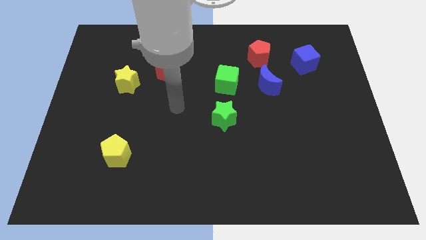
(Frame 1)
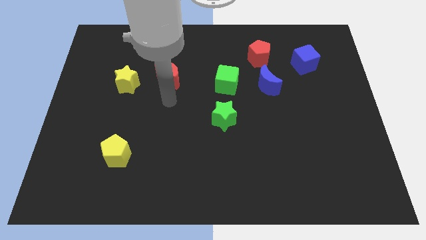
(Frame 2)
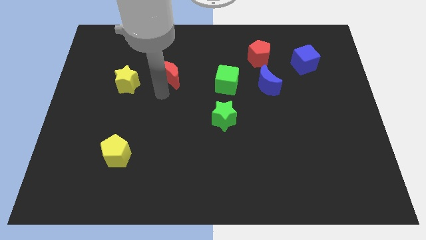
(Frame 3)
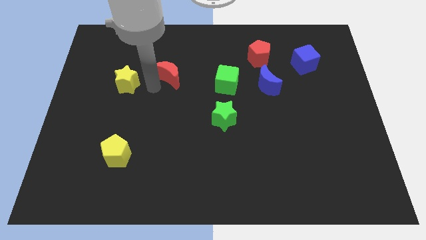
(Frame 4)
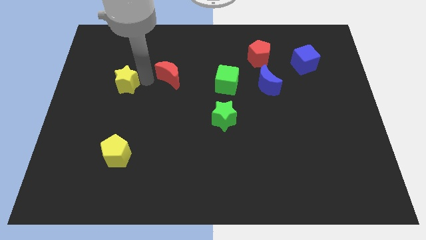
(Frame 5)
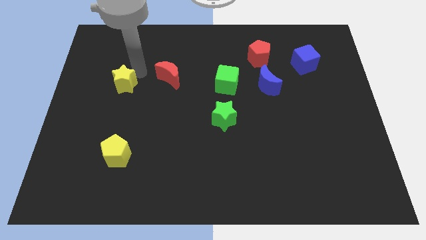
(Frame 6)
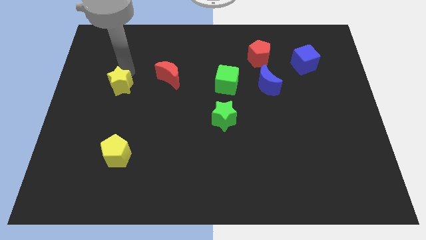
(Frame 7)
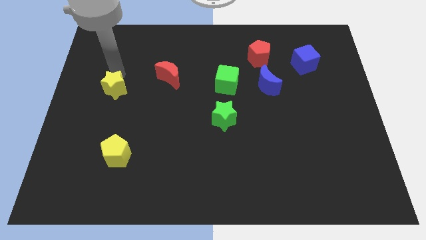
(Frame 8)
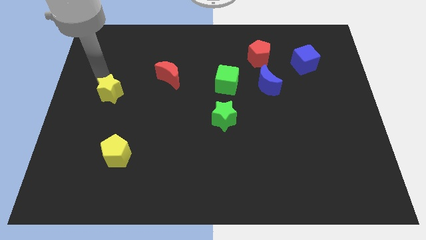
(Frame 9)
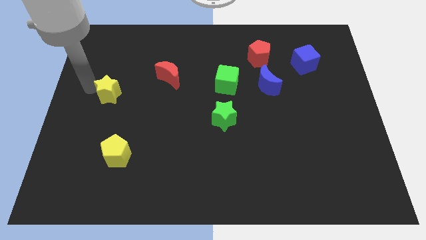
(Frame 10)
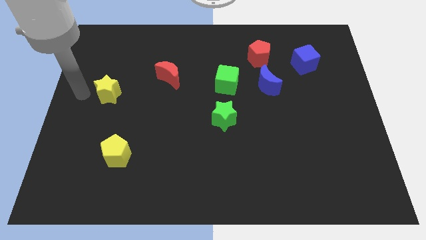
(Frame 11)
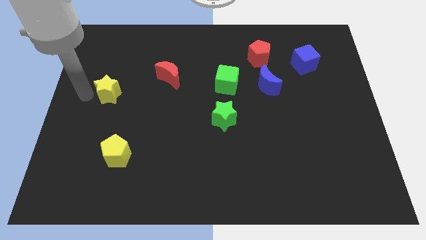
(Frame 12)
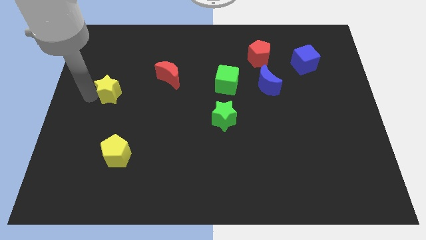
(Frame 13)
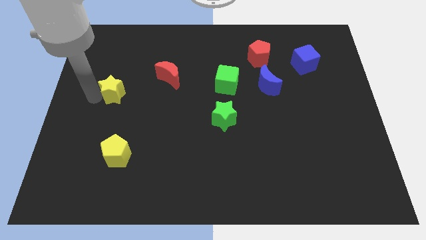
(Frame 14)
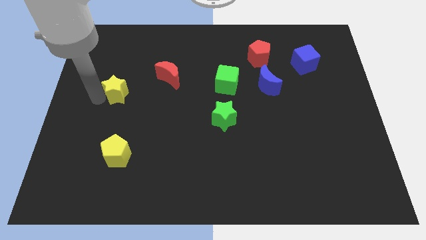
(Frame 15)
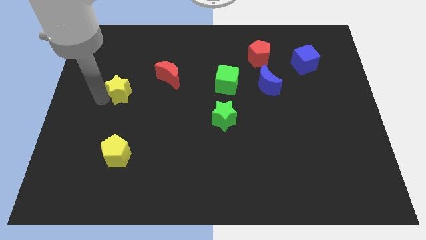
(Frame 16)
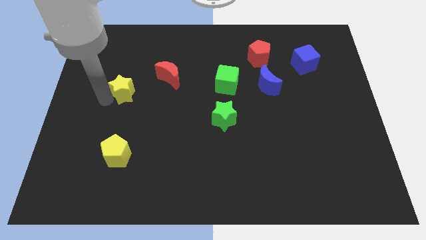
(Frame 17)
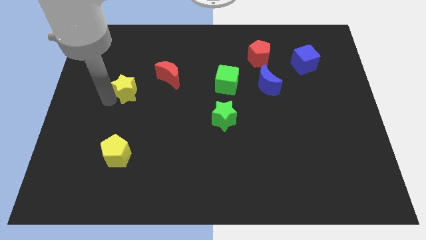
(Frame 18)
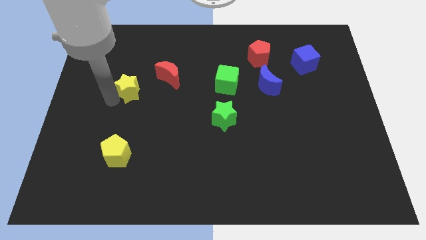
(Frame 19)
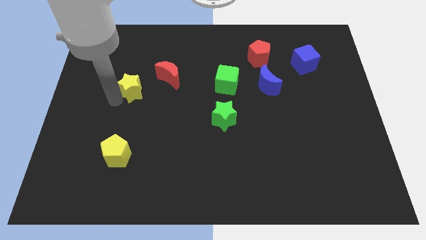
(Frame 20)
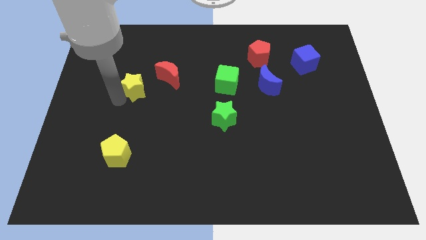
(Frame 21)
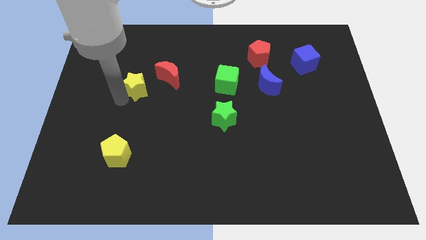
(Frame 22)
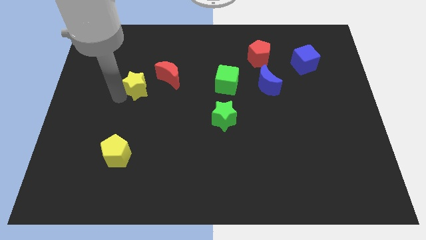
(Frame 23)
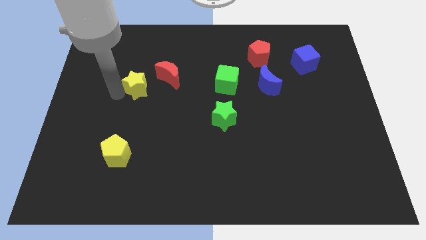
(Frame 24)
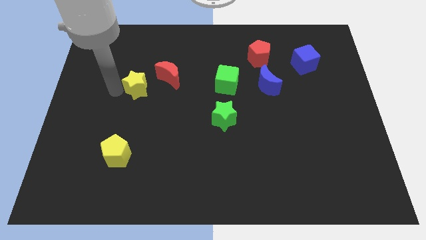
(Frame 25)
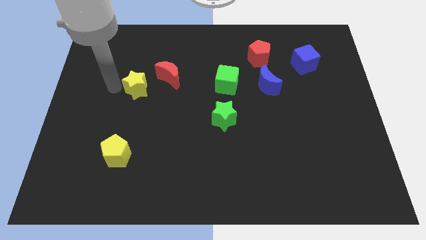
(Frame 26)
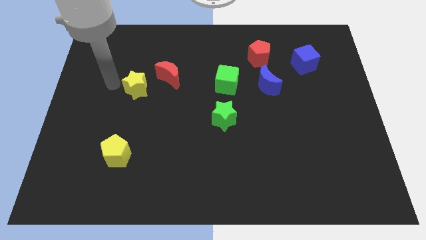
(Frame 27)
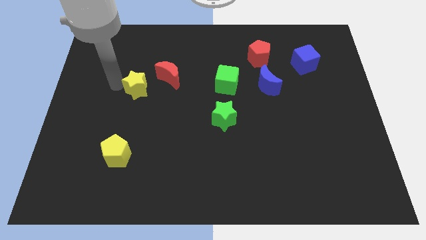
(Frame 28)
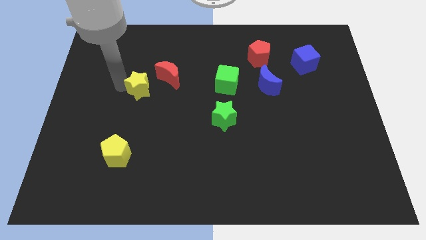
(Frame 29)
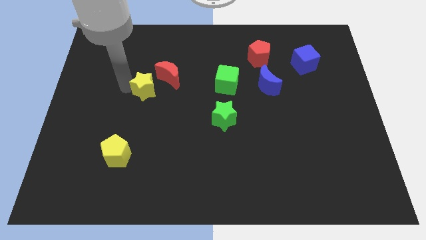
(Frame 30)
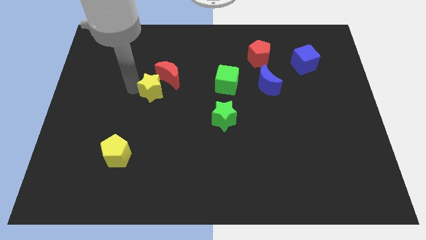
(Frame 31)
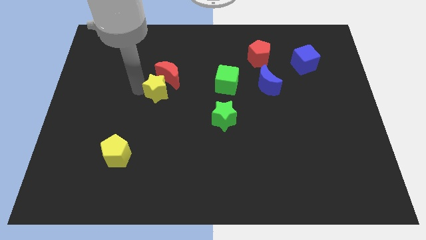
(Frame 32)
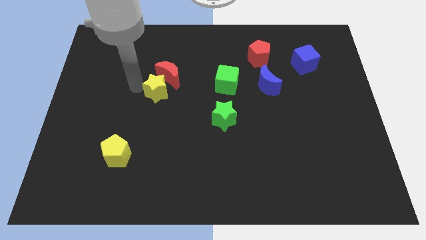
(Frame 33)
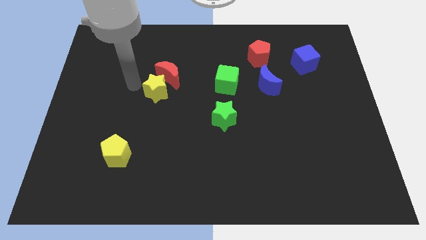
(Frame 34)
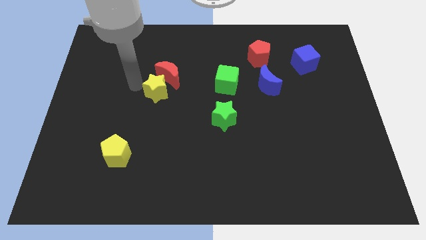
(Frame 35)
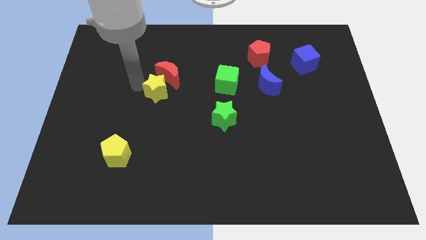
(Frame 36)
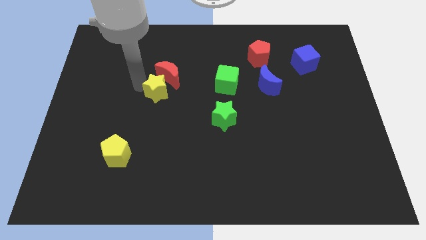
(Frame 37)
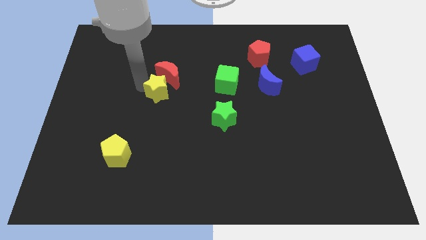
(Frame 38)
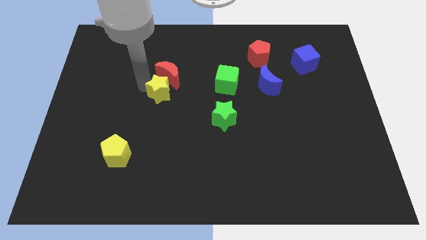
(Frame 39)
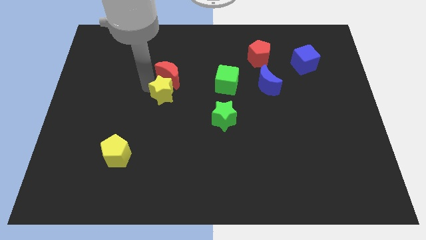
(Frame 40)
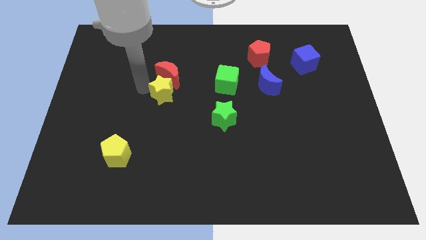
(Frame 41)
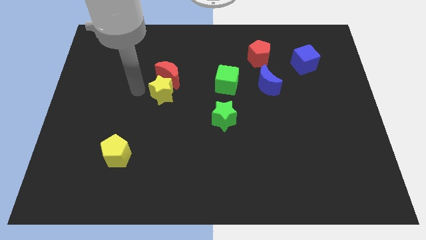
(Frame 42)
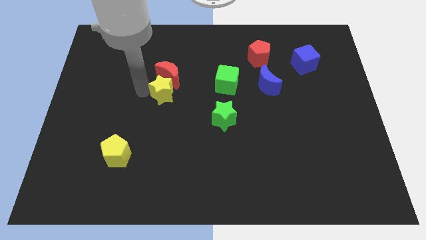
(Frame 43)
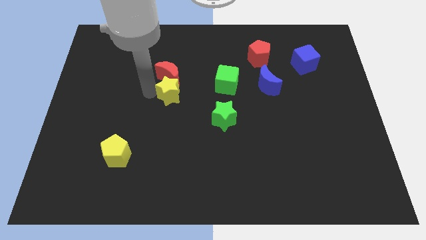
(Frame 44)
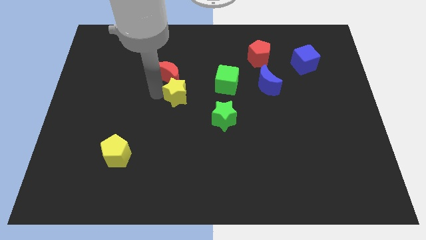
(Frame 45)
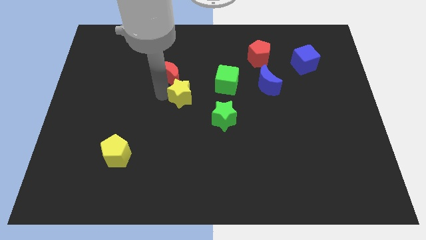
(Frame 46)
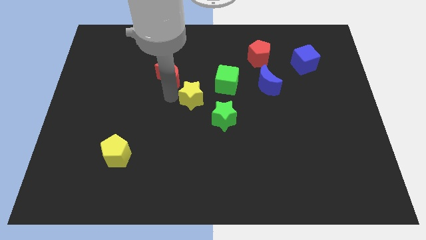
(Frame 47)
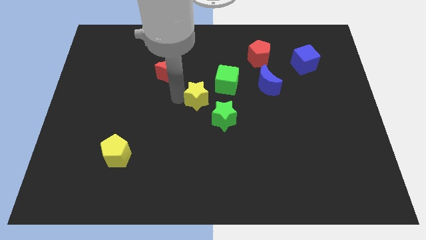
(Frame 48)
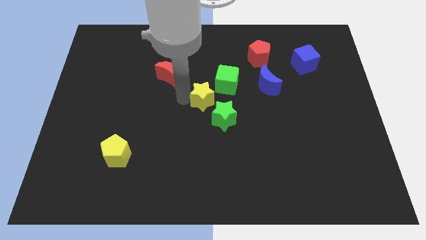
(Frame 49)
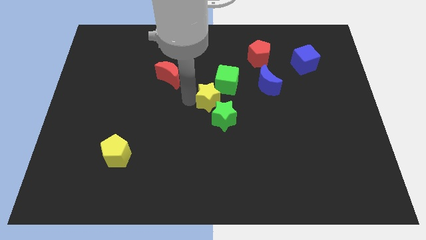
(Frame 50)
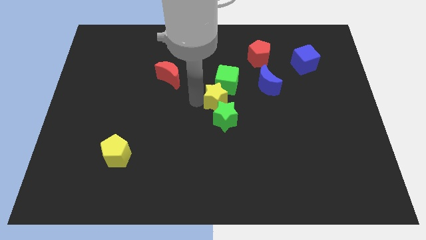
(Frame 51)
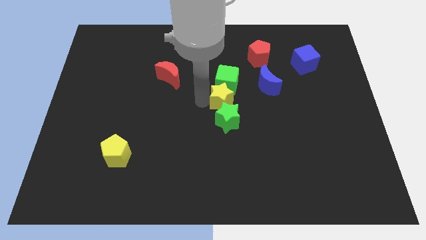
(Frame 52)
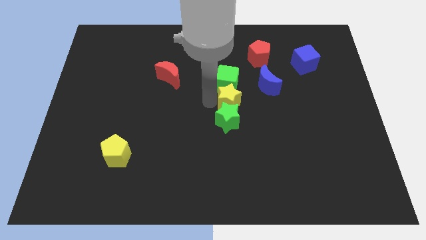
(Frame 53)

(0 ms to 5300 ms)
push the yellow star to the bottom right of the green cube

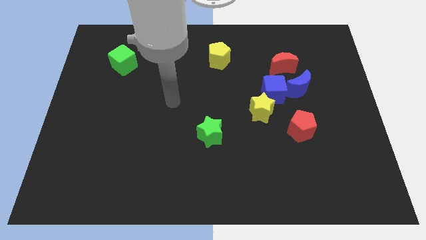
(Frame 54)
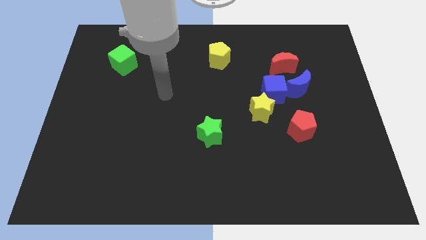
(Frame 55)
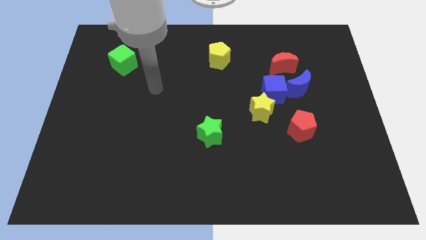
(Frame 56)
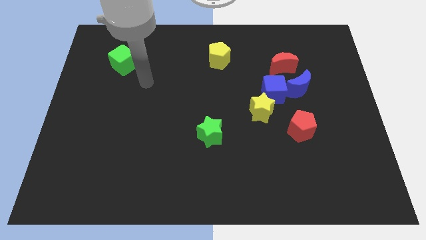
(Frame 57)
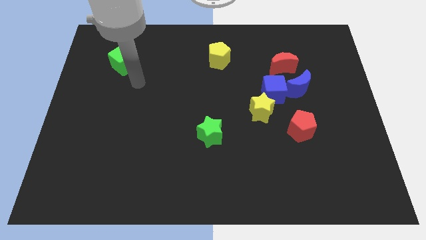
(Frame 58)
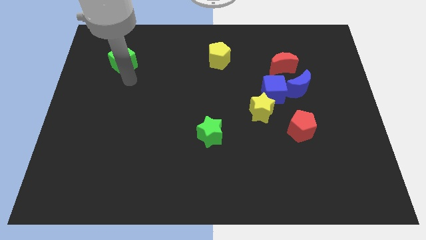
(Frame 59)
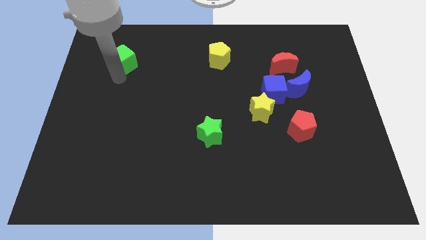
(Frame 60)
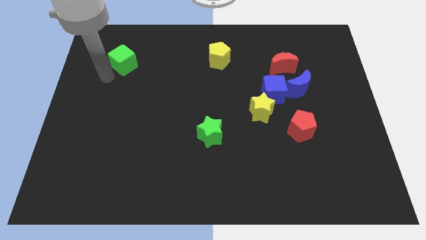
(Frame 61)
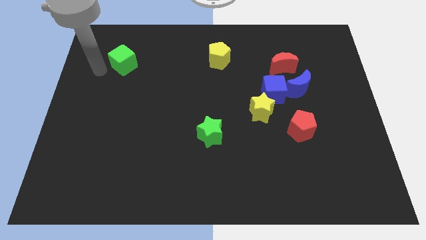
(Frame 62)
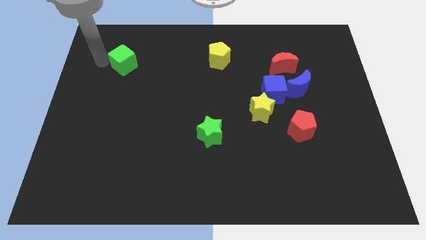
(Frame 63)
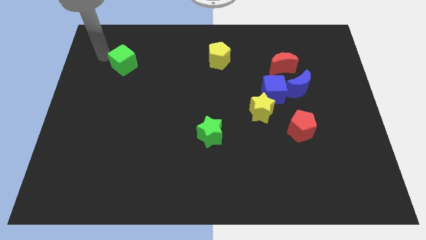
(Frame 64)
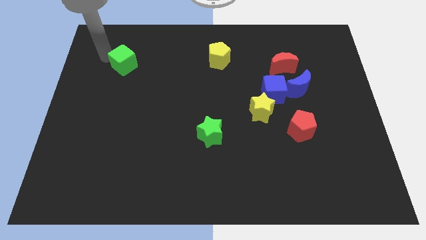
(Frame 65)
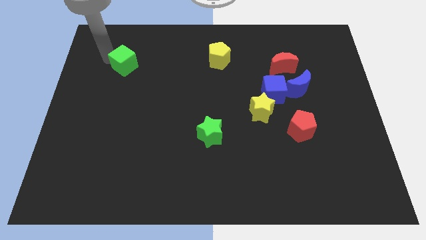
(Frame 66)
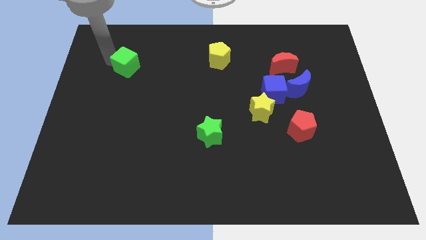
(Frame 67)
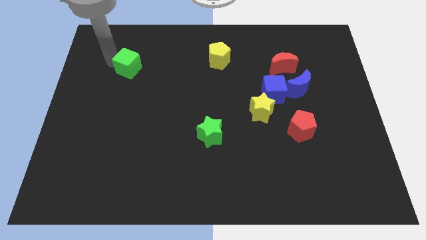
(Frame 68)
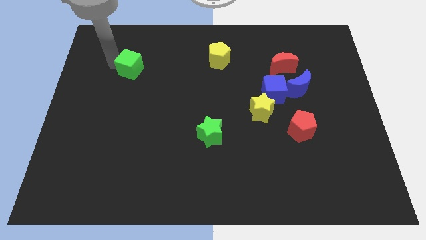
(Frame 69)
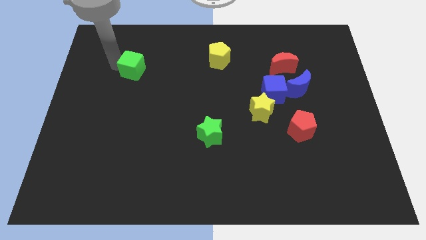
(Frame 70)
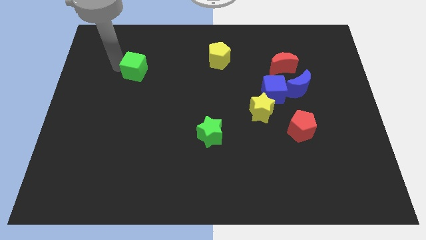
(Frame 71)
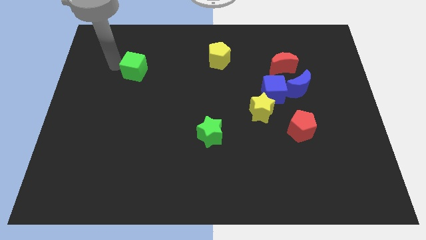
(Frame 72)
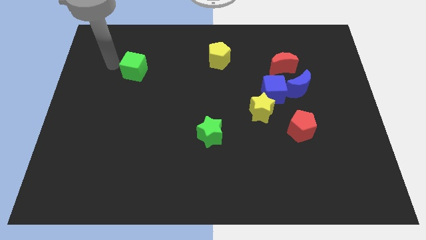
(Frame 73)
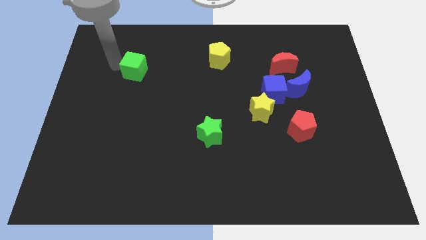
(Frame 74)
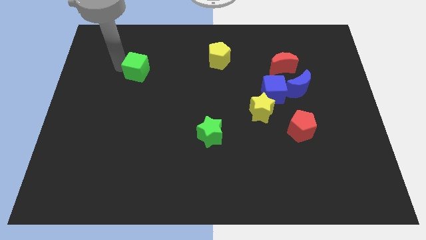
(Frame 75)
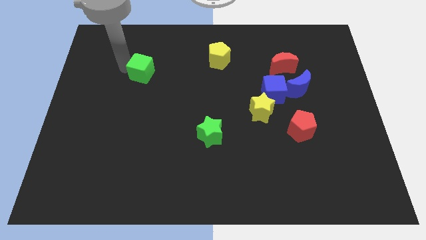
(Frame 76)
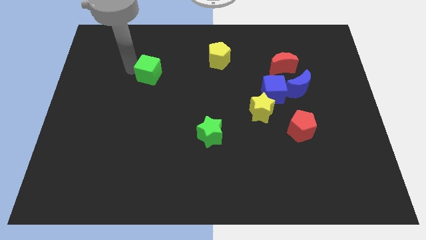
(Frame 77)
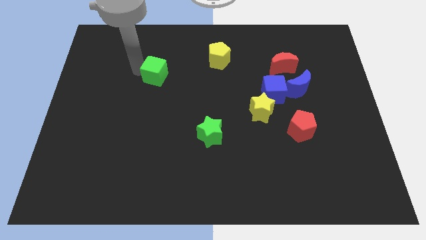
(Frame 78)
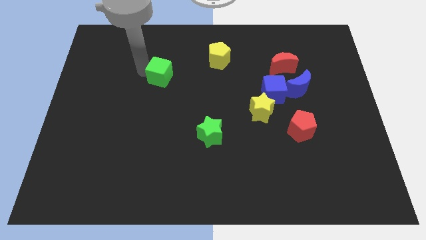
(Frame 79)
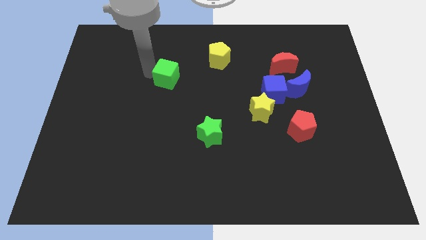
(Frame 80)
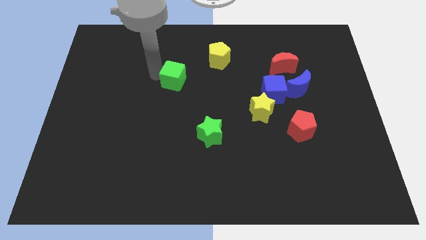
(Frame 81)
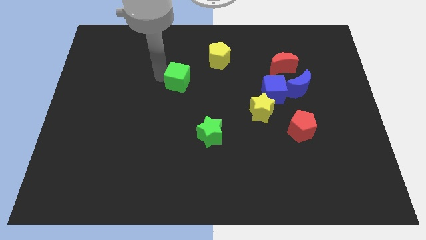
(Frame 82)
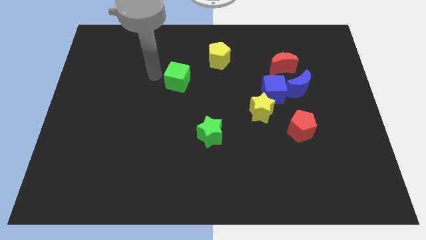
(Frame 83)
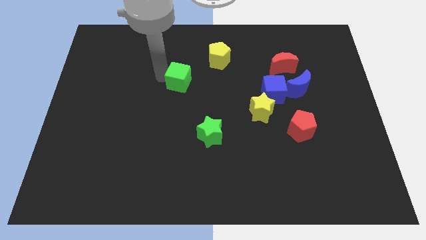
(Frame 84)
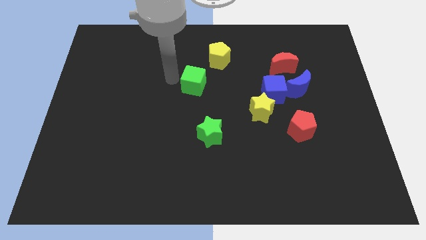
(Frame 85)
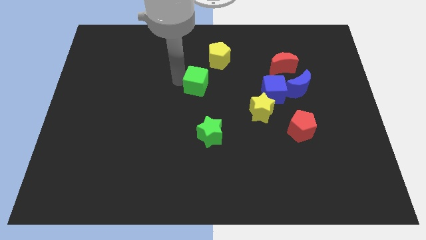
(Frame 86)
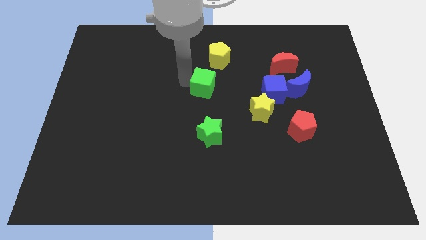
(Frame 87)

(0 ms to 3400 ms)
move the green cube to the bottom side of the yellow pentagon
